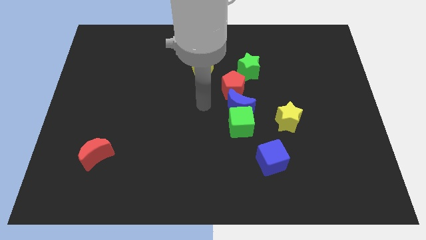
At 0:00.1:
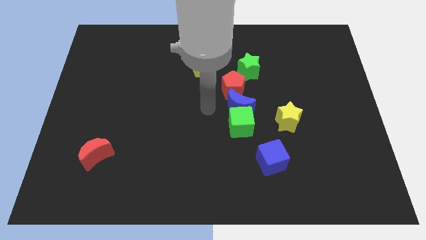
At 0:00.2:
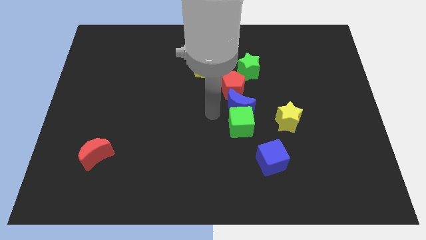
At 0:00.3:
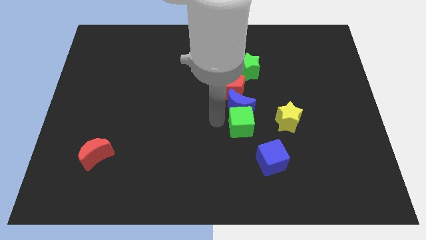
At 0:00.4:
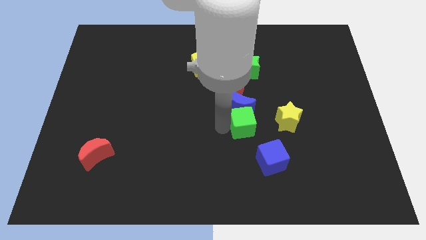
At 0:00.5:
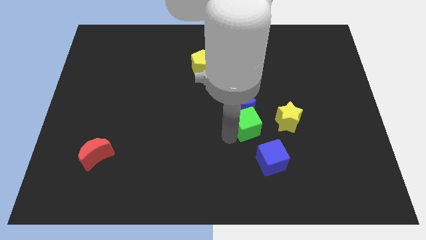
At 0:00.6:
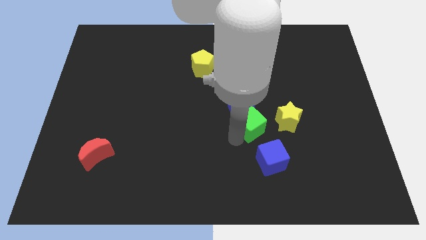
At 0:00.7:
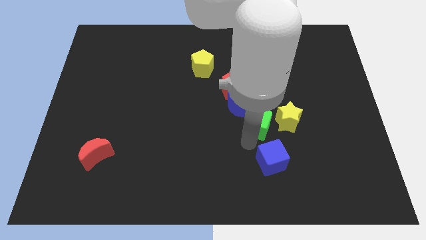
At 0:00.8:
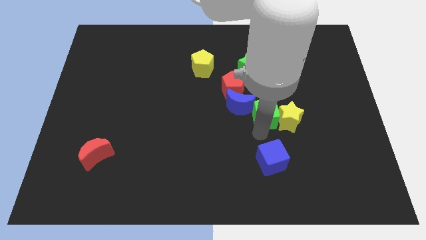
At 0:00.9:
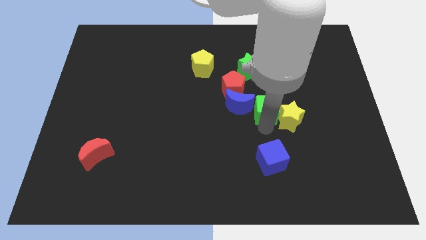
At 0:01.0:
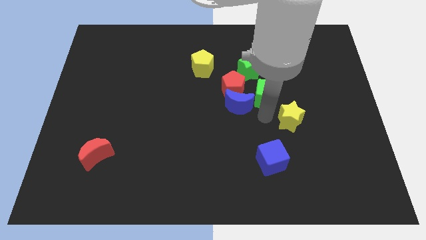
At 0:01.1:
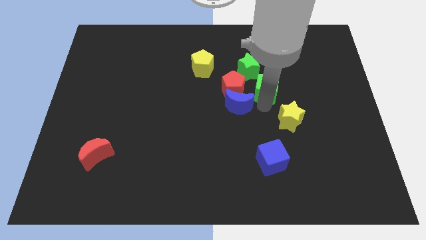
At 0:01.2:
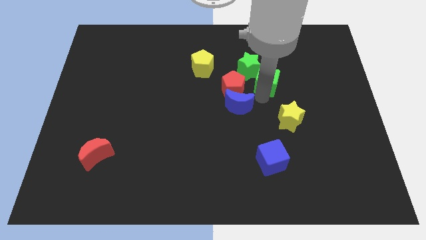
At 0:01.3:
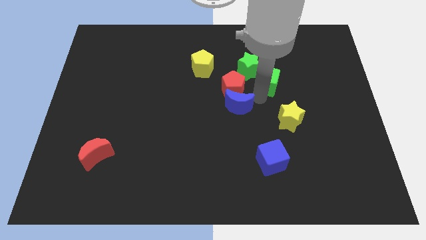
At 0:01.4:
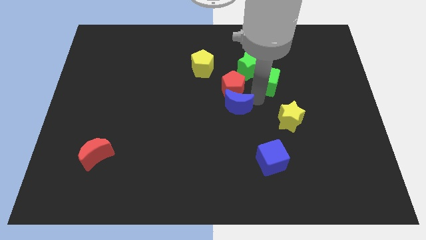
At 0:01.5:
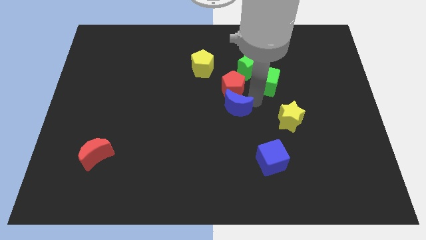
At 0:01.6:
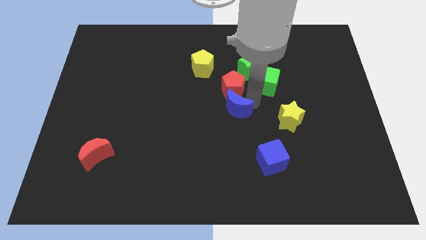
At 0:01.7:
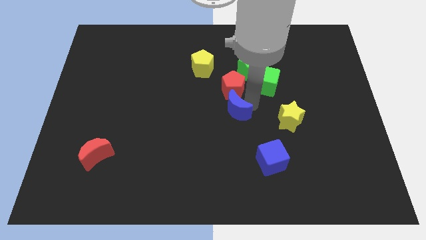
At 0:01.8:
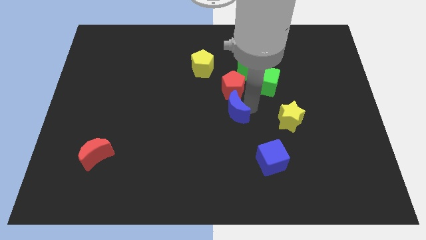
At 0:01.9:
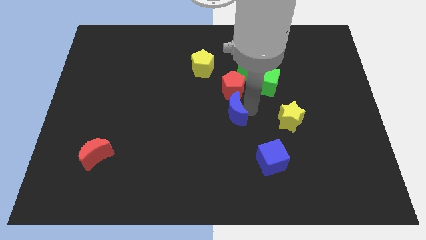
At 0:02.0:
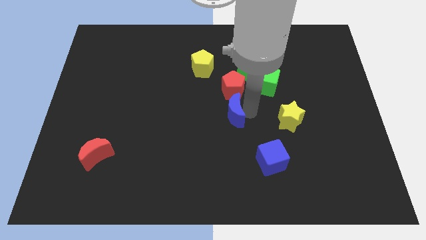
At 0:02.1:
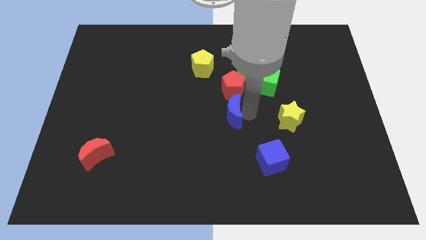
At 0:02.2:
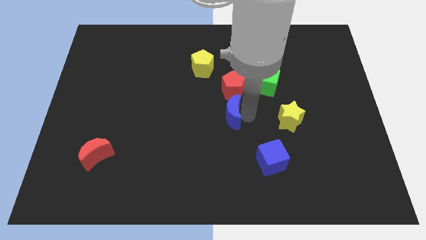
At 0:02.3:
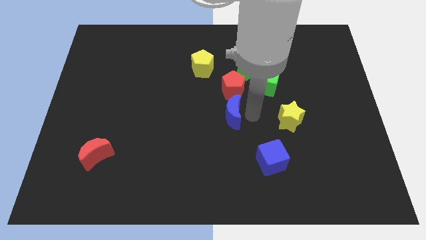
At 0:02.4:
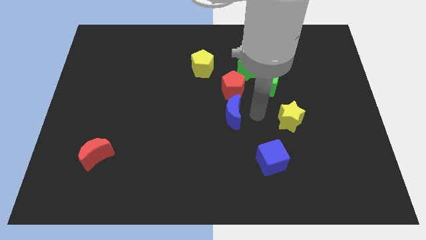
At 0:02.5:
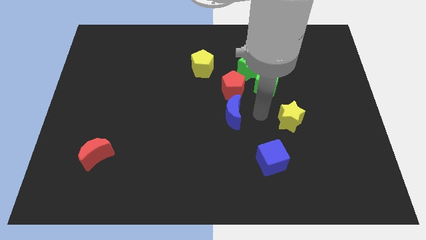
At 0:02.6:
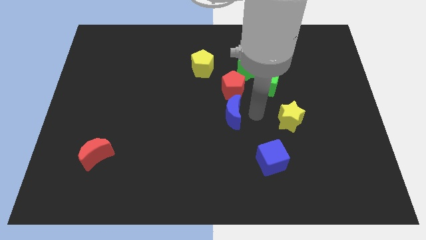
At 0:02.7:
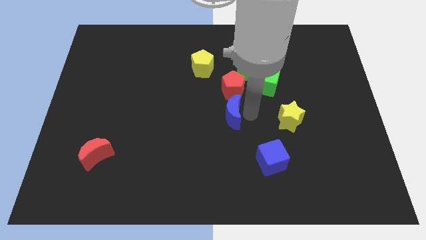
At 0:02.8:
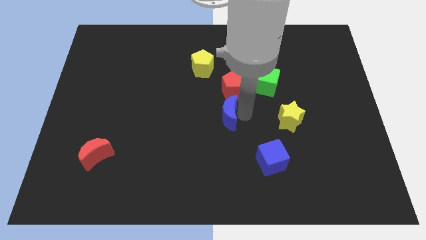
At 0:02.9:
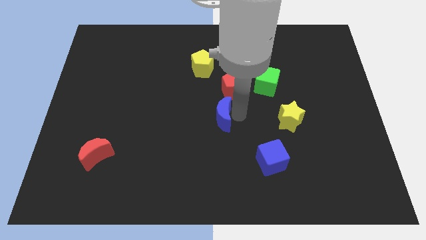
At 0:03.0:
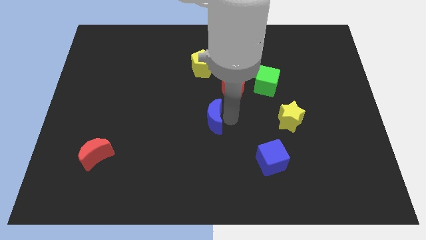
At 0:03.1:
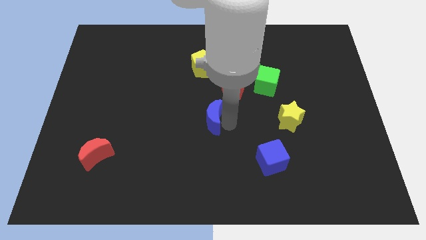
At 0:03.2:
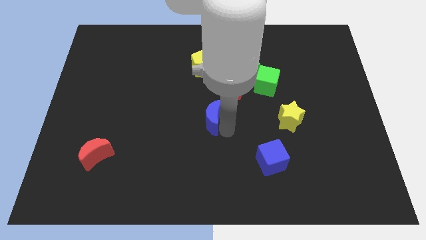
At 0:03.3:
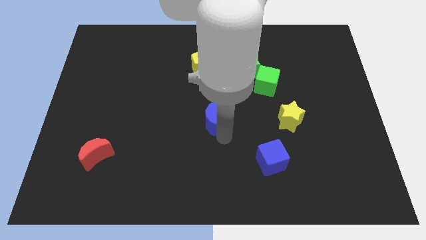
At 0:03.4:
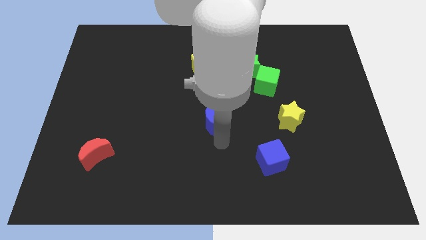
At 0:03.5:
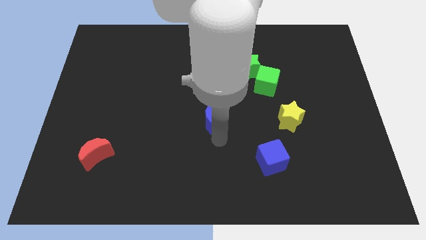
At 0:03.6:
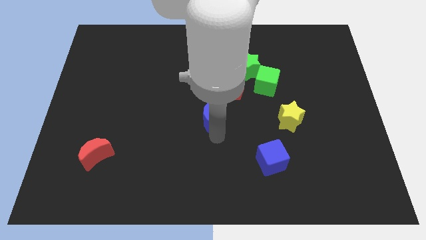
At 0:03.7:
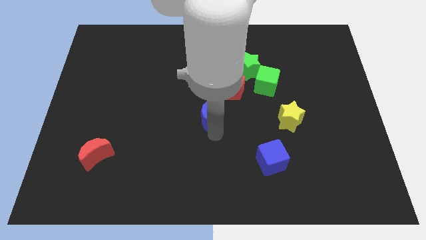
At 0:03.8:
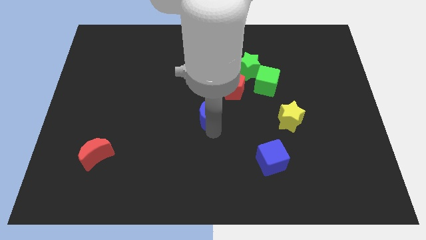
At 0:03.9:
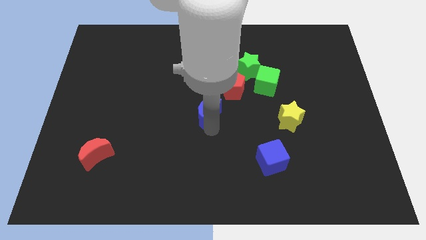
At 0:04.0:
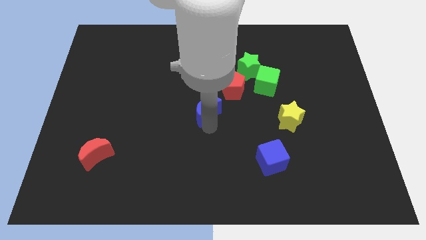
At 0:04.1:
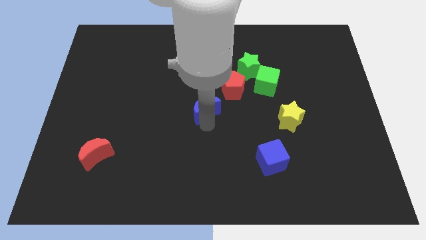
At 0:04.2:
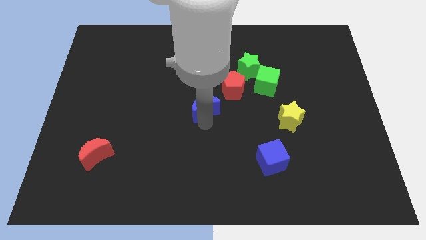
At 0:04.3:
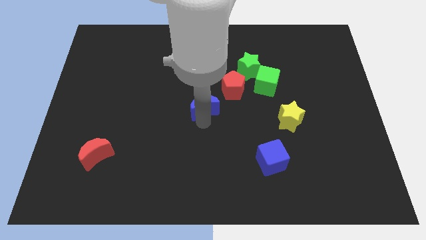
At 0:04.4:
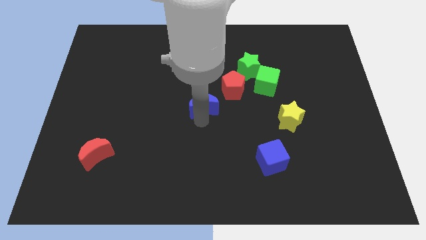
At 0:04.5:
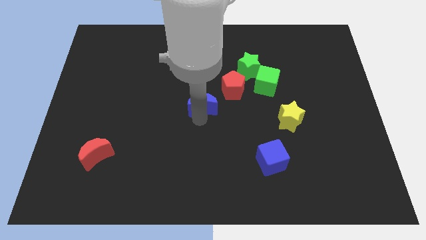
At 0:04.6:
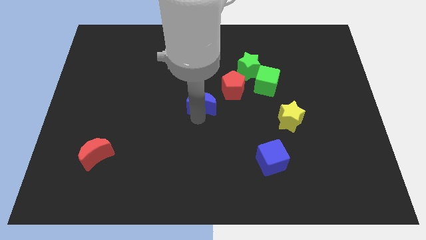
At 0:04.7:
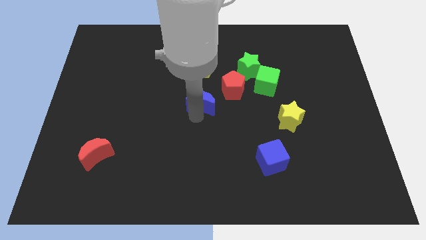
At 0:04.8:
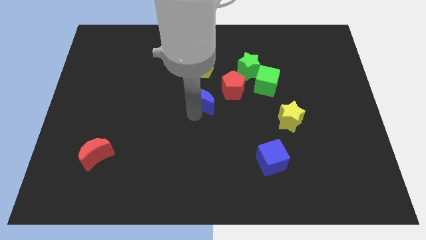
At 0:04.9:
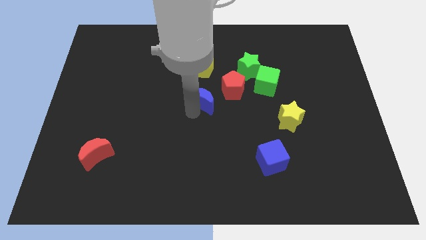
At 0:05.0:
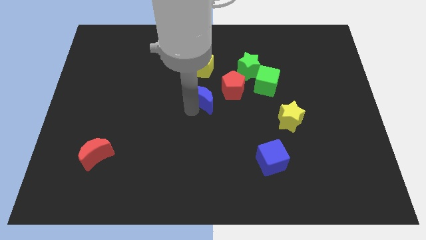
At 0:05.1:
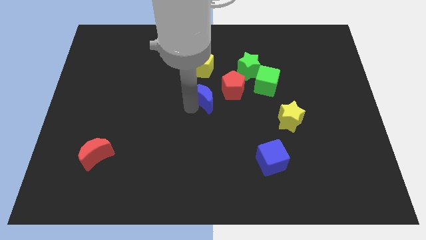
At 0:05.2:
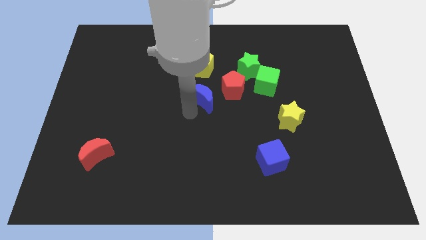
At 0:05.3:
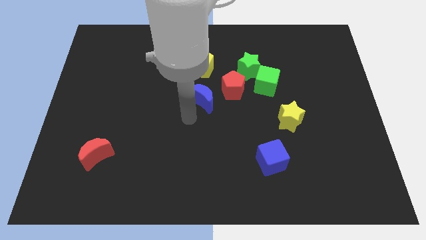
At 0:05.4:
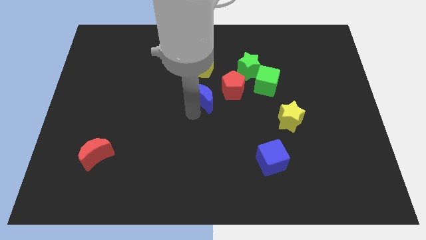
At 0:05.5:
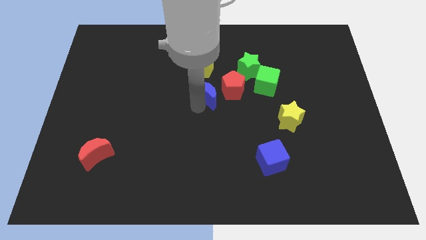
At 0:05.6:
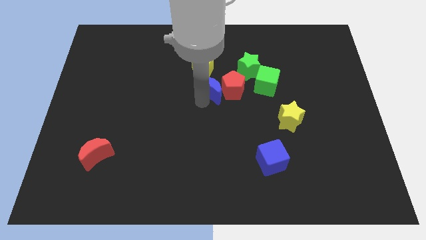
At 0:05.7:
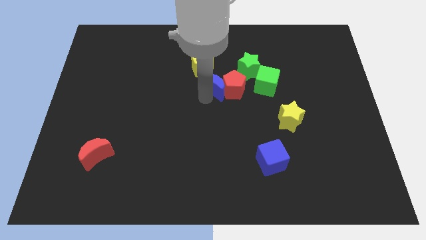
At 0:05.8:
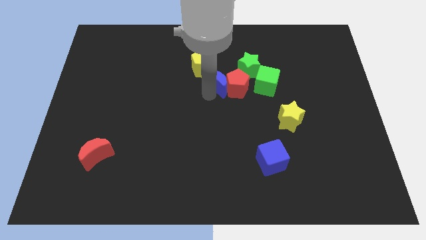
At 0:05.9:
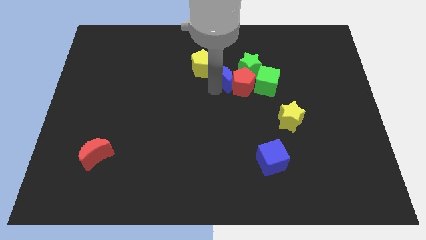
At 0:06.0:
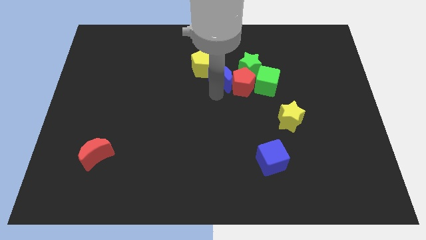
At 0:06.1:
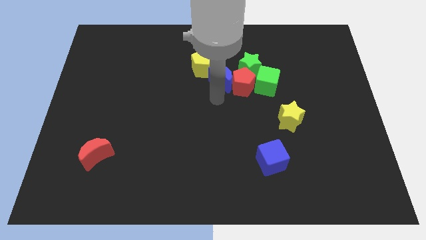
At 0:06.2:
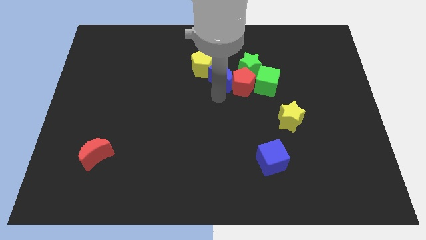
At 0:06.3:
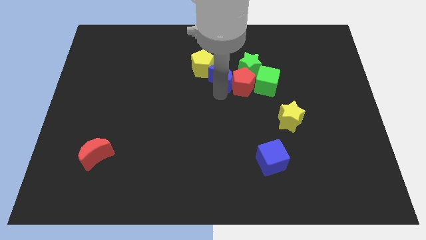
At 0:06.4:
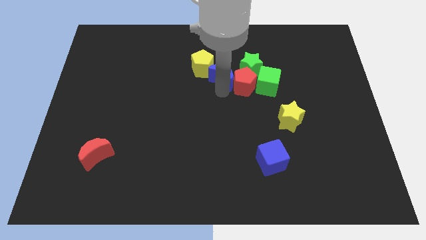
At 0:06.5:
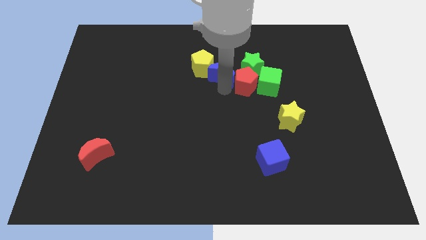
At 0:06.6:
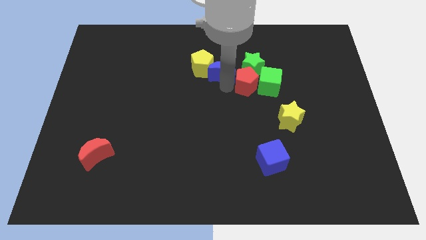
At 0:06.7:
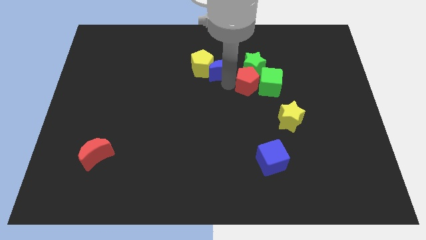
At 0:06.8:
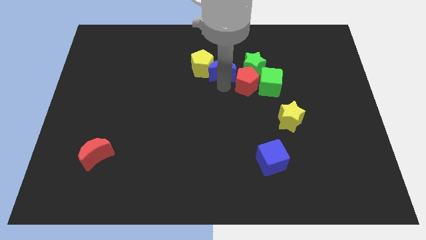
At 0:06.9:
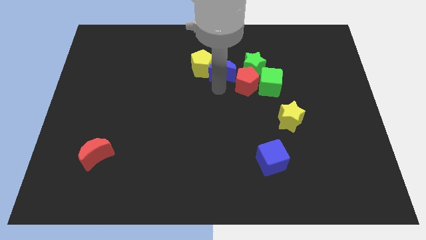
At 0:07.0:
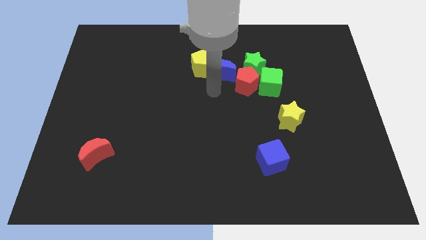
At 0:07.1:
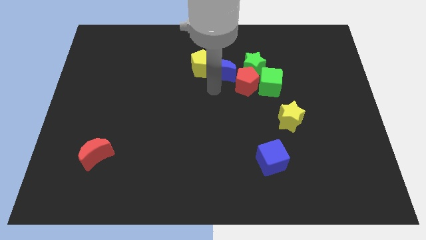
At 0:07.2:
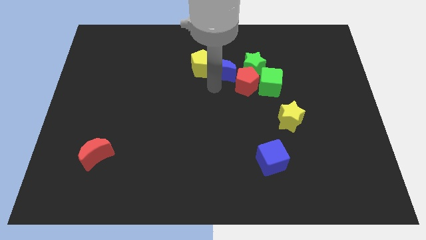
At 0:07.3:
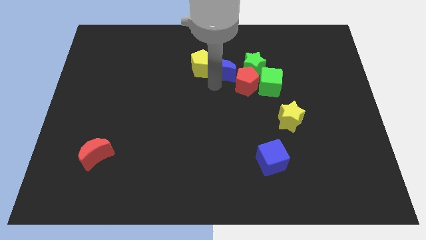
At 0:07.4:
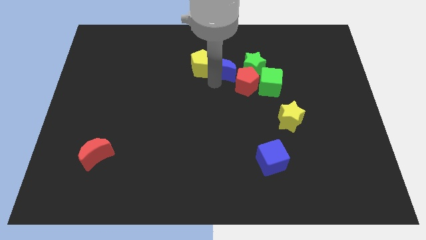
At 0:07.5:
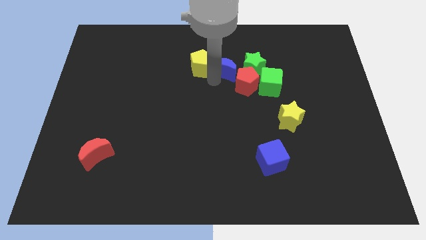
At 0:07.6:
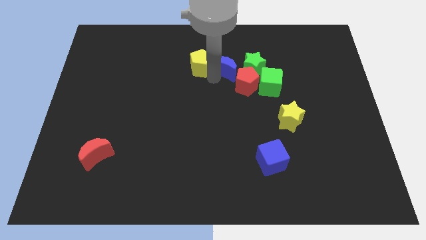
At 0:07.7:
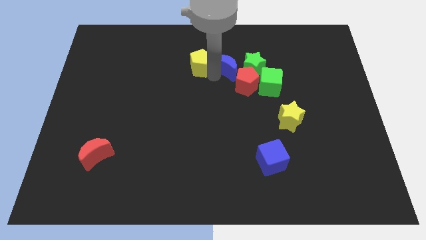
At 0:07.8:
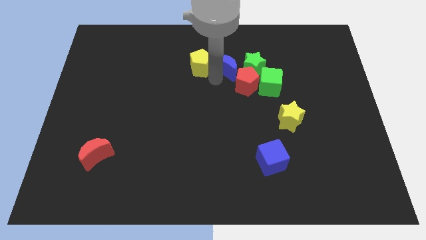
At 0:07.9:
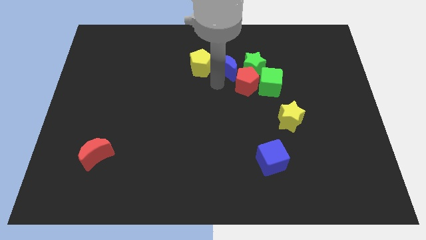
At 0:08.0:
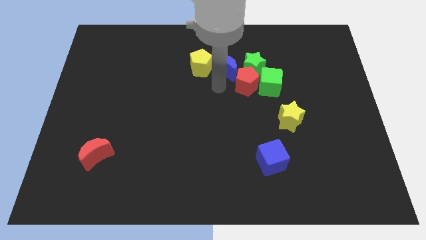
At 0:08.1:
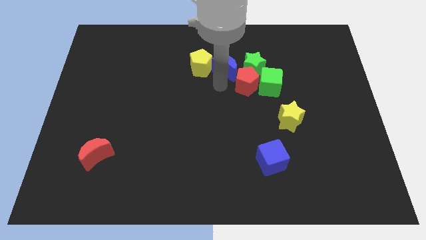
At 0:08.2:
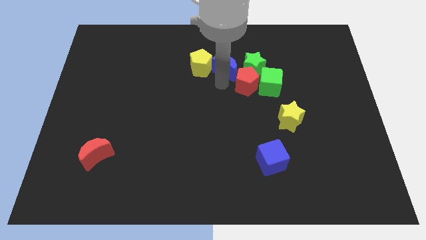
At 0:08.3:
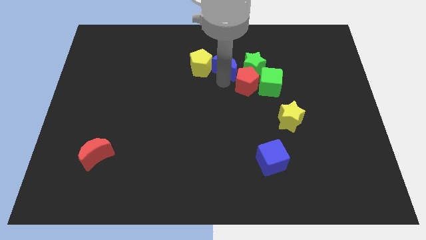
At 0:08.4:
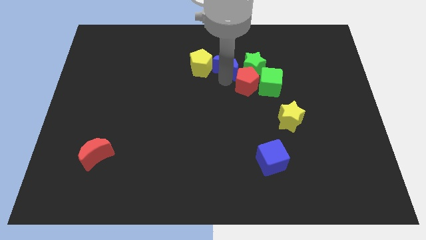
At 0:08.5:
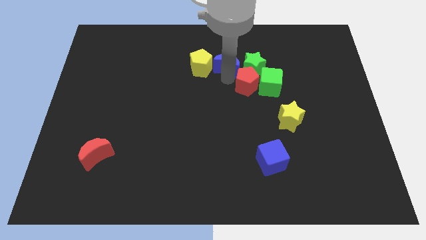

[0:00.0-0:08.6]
slide the blue moon to the top left side of the green star
